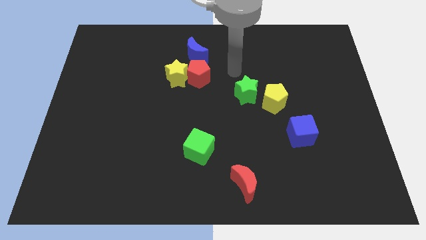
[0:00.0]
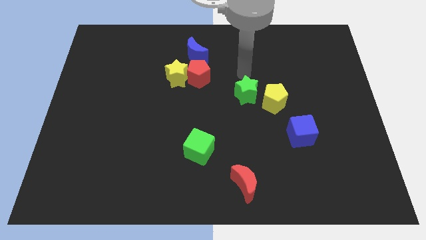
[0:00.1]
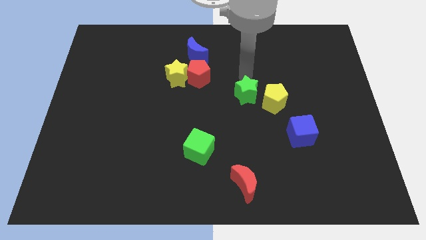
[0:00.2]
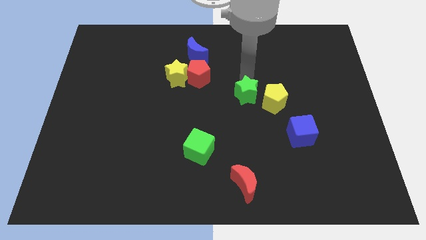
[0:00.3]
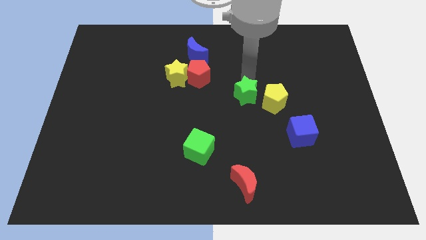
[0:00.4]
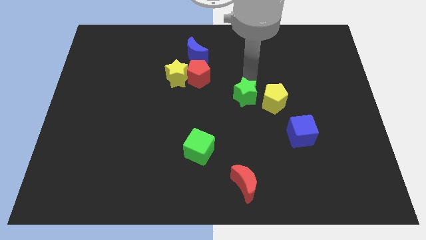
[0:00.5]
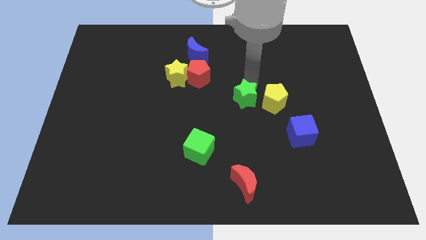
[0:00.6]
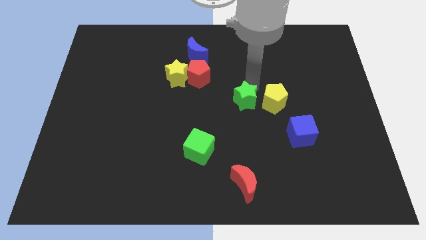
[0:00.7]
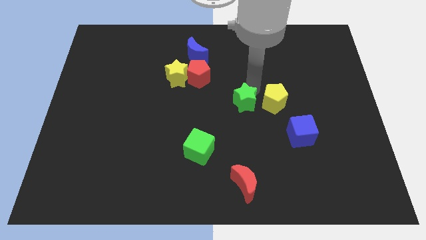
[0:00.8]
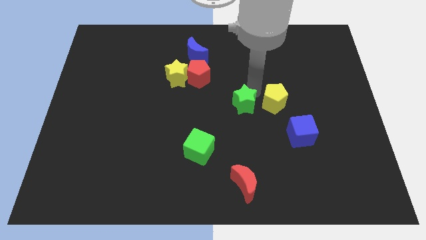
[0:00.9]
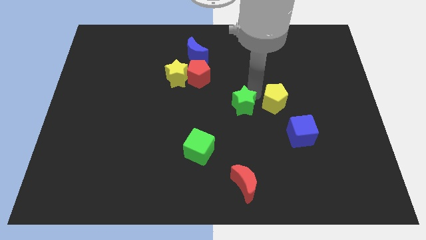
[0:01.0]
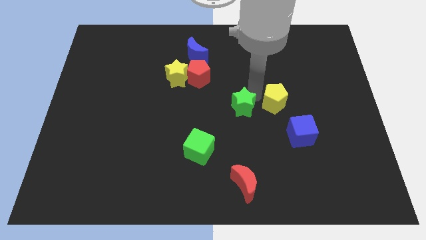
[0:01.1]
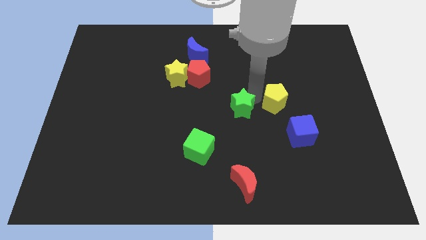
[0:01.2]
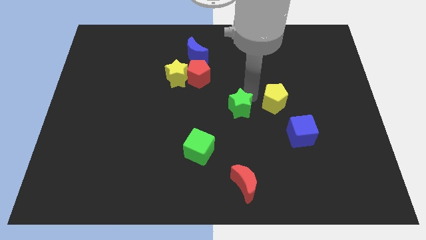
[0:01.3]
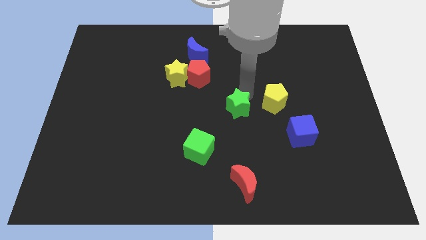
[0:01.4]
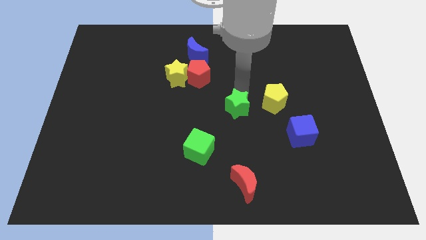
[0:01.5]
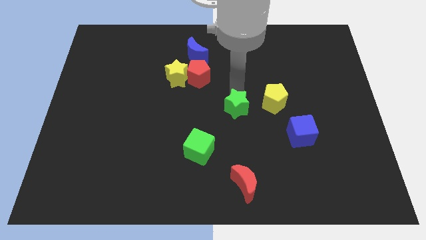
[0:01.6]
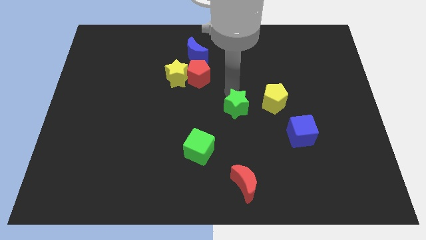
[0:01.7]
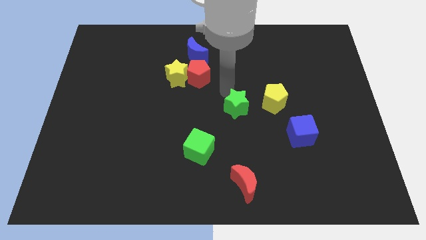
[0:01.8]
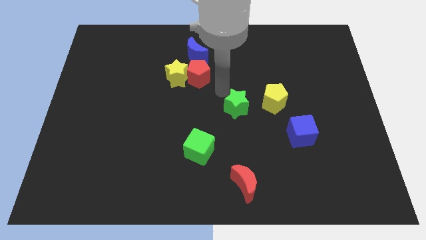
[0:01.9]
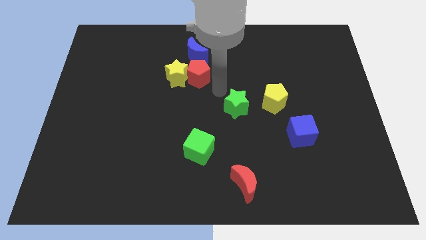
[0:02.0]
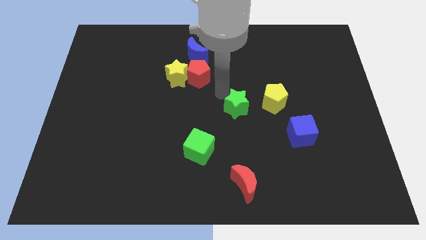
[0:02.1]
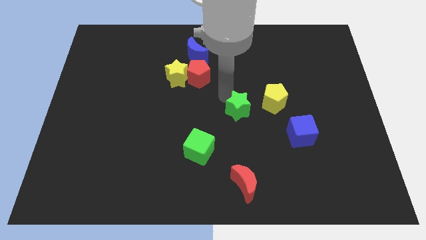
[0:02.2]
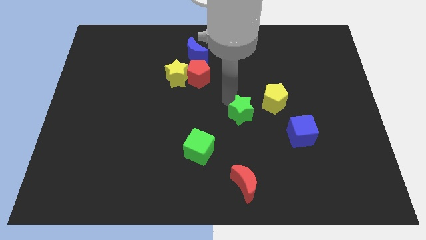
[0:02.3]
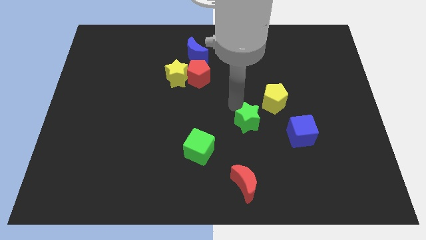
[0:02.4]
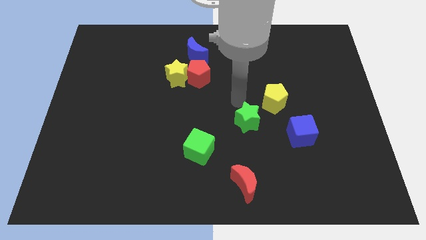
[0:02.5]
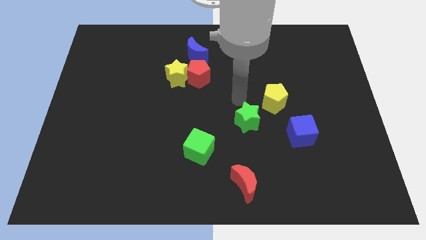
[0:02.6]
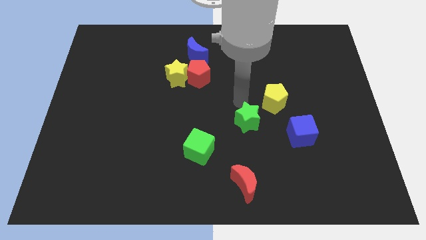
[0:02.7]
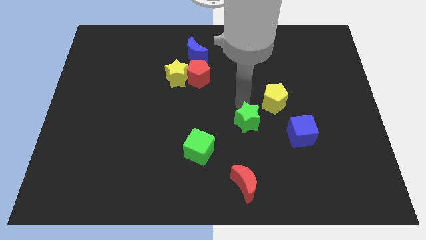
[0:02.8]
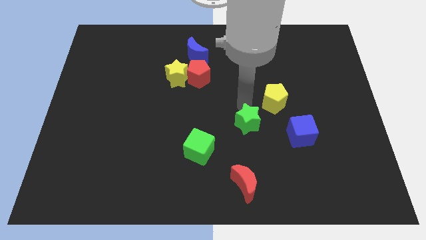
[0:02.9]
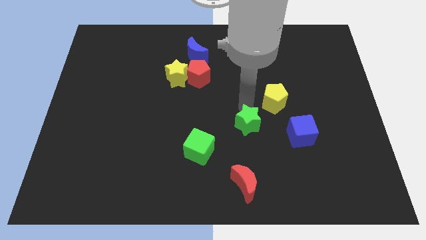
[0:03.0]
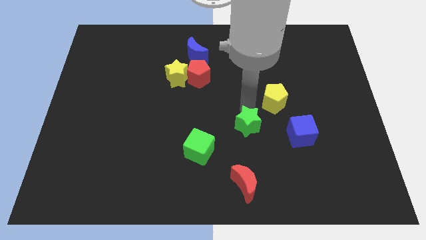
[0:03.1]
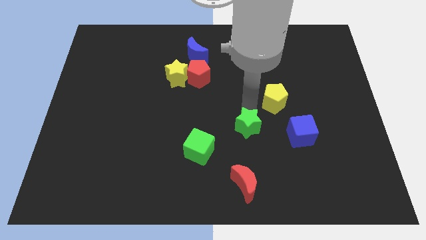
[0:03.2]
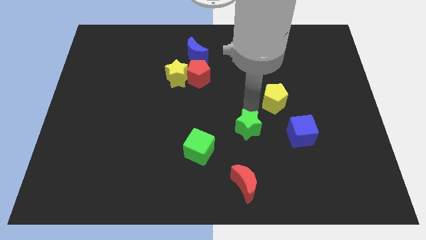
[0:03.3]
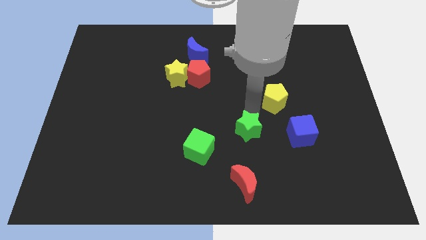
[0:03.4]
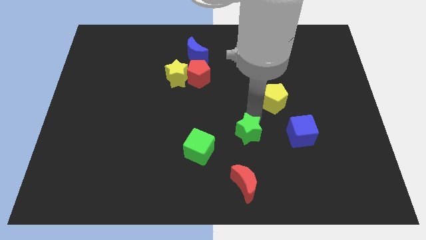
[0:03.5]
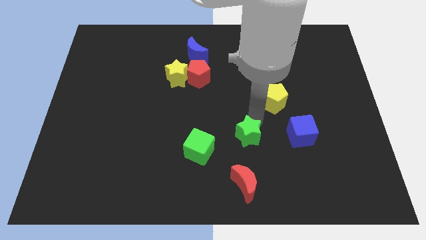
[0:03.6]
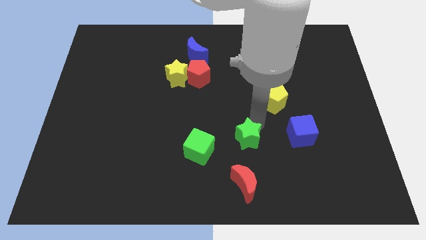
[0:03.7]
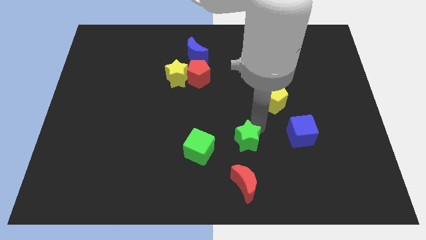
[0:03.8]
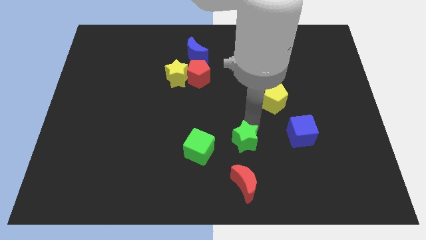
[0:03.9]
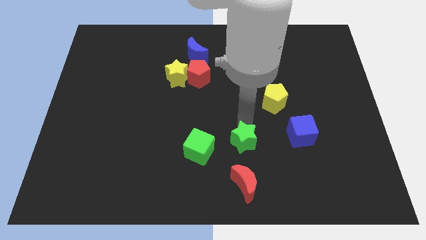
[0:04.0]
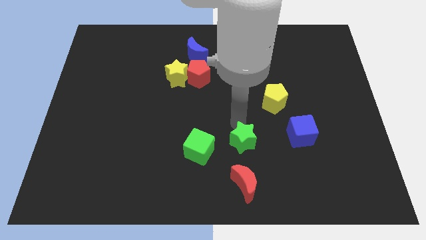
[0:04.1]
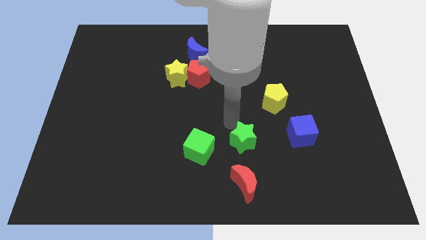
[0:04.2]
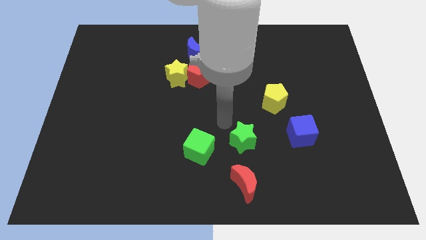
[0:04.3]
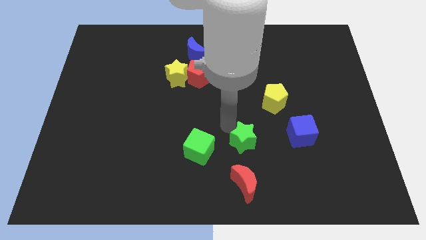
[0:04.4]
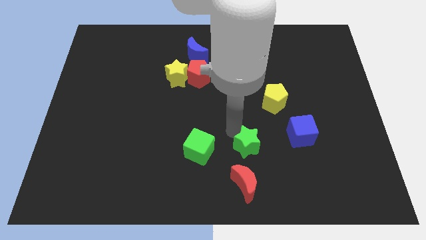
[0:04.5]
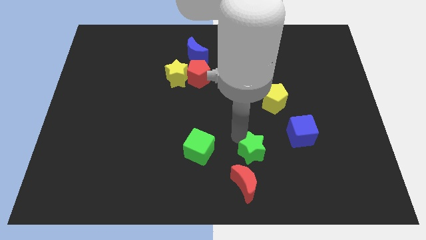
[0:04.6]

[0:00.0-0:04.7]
move the green star diagonally up and to the right of the red moon

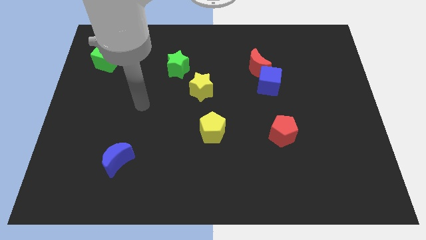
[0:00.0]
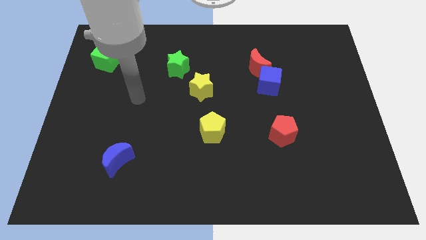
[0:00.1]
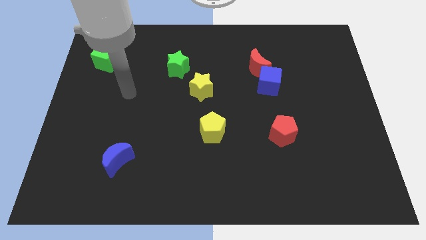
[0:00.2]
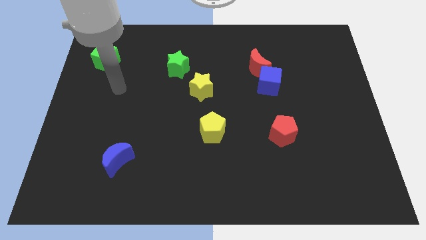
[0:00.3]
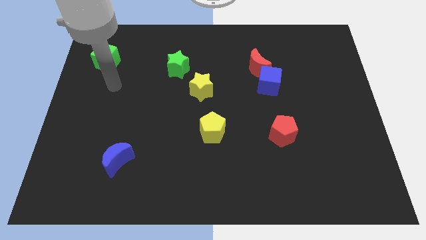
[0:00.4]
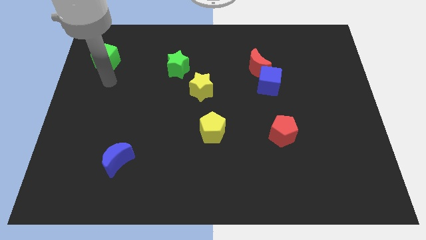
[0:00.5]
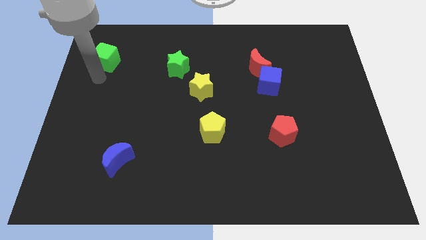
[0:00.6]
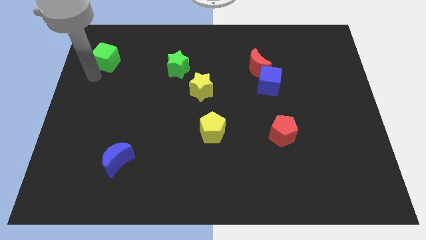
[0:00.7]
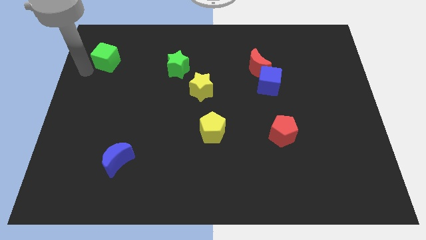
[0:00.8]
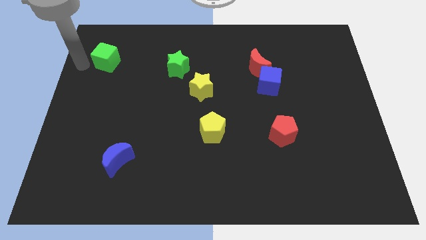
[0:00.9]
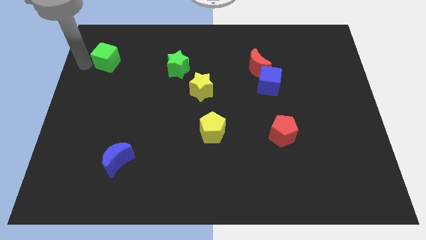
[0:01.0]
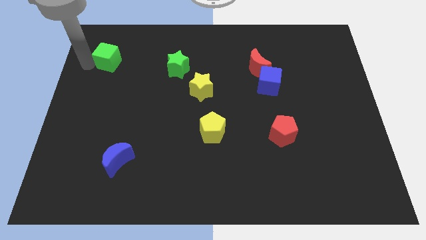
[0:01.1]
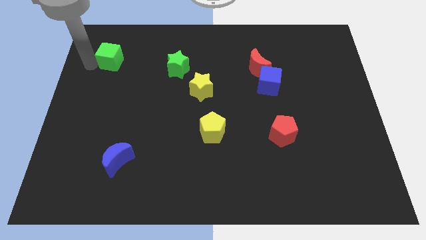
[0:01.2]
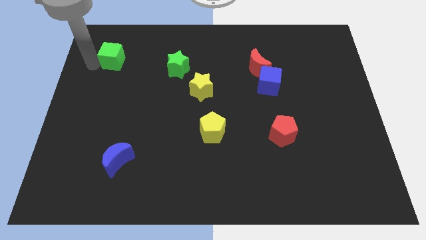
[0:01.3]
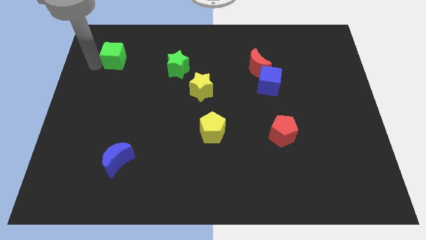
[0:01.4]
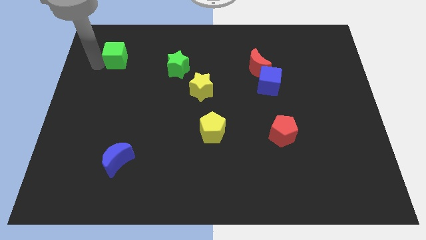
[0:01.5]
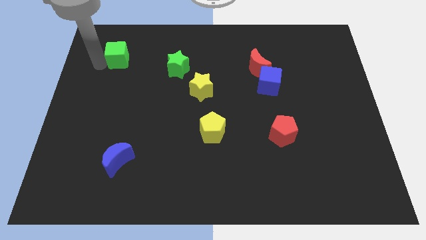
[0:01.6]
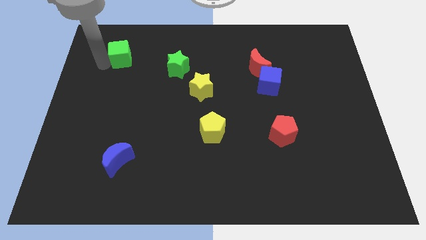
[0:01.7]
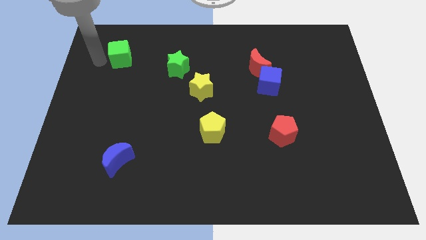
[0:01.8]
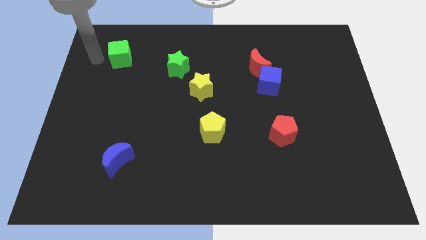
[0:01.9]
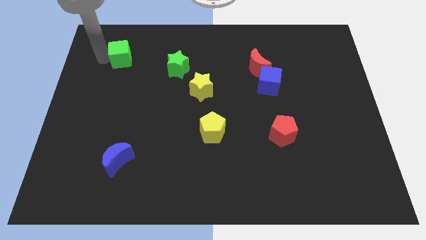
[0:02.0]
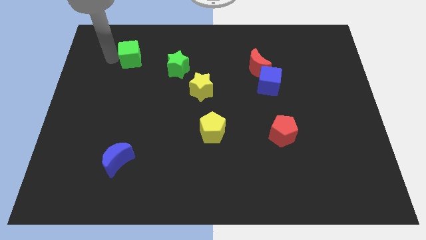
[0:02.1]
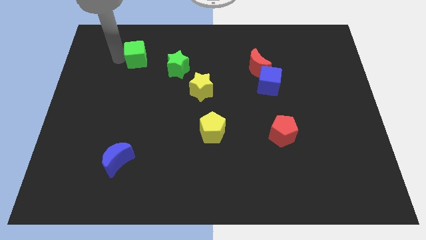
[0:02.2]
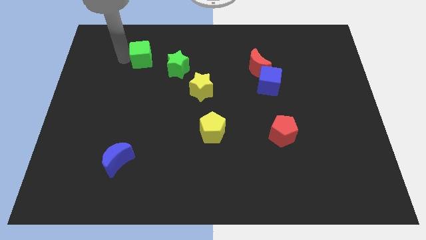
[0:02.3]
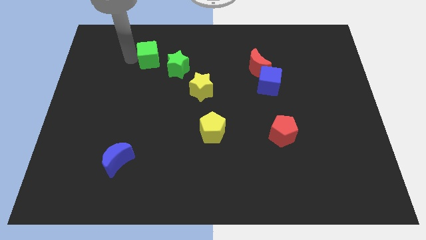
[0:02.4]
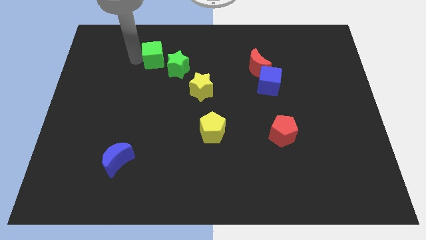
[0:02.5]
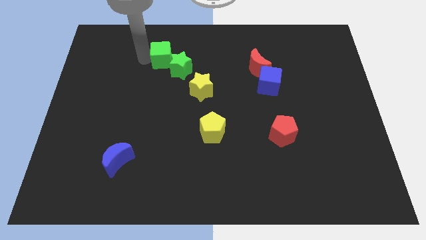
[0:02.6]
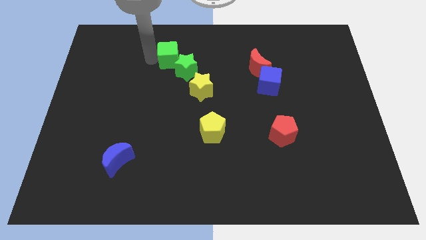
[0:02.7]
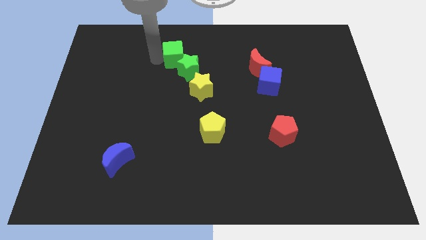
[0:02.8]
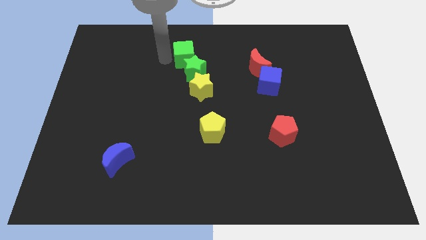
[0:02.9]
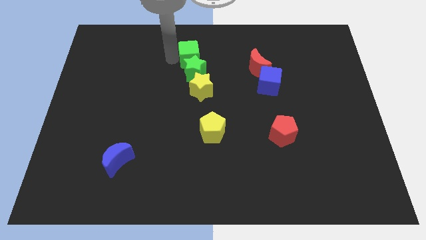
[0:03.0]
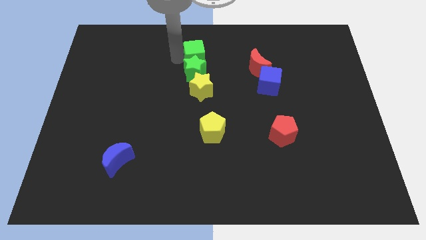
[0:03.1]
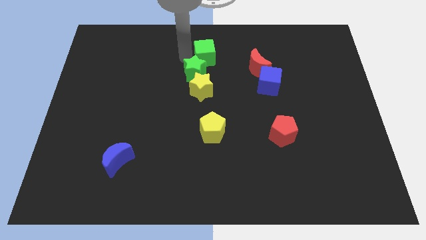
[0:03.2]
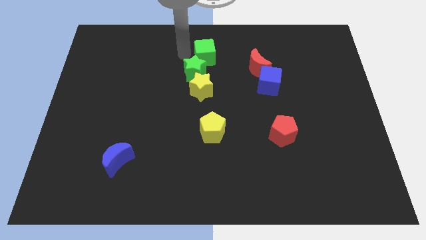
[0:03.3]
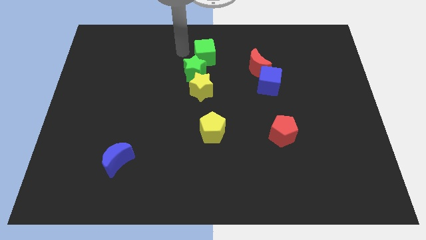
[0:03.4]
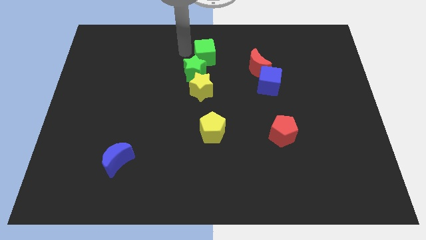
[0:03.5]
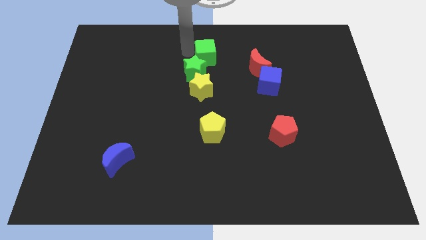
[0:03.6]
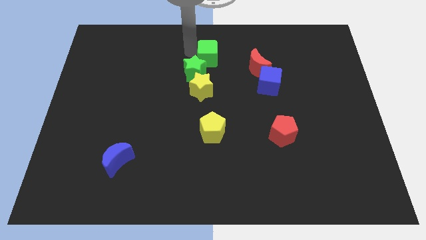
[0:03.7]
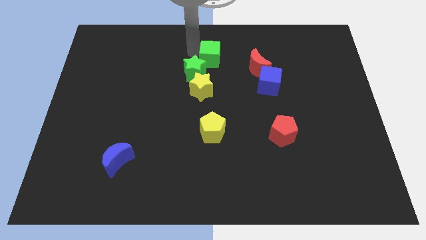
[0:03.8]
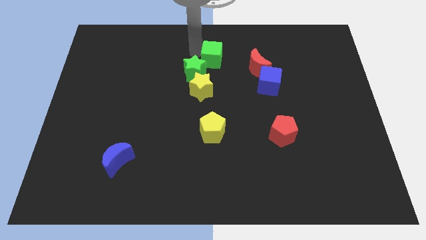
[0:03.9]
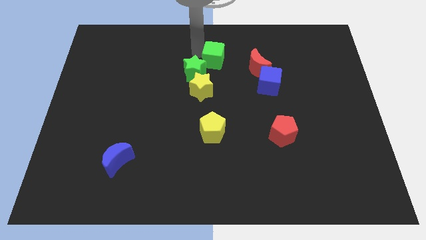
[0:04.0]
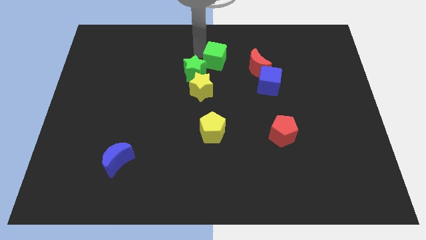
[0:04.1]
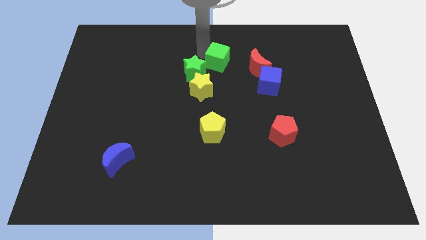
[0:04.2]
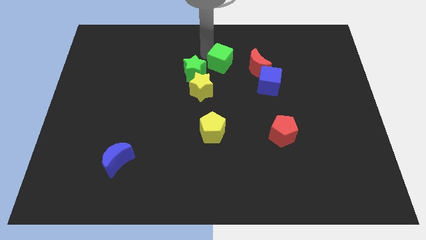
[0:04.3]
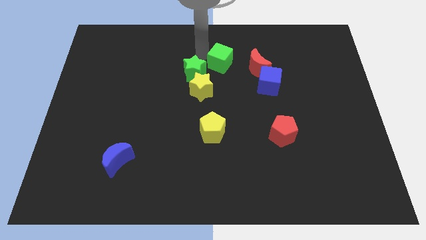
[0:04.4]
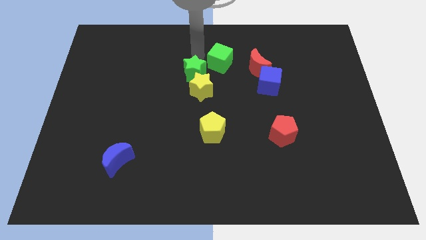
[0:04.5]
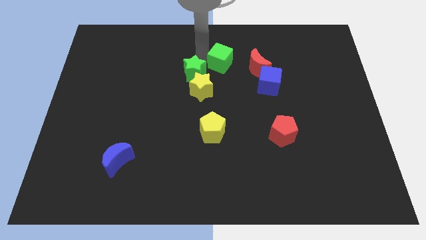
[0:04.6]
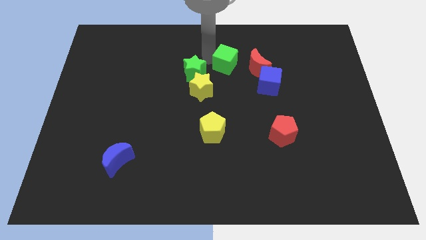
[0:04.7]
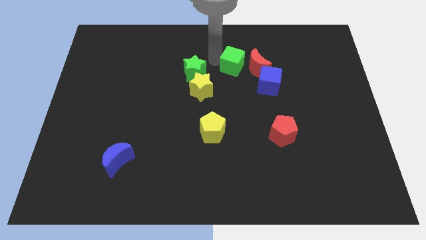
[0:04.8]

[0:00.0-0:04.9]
push the green cube to the top left of the blue cube
